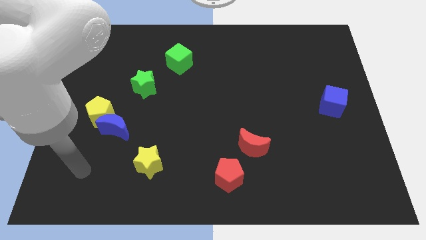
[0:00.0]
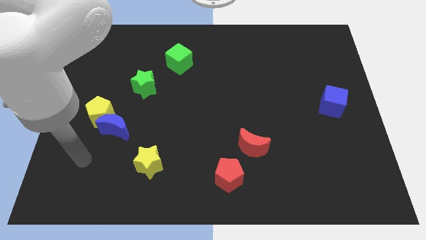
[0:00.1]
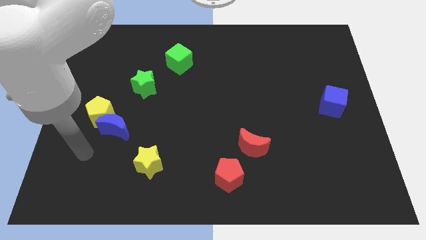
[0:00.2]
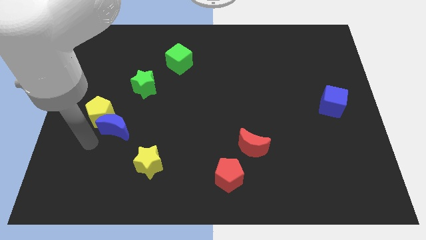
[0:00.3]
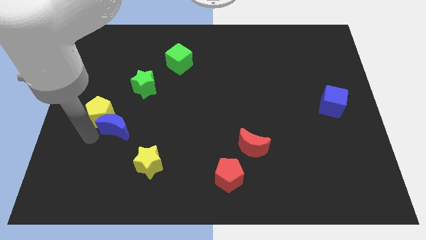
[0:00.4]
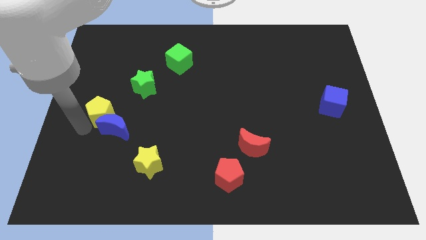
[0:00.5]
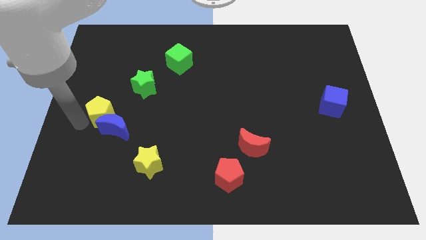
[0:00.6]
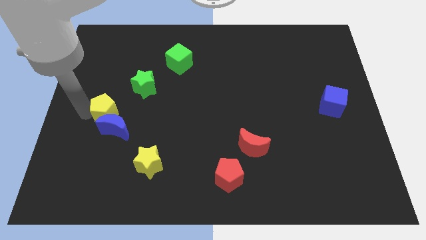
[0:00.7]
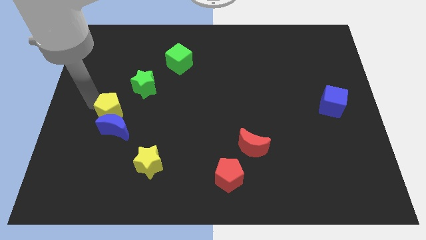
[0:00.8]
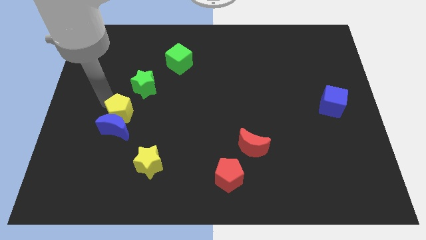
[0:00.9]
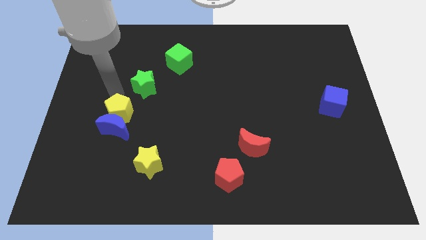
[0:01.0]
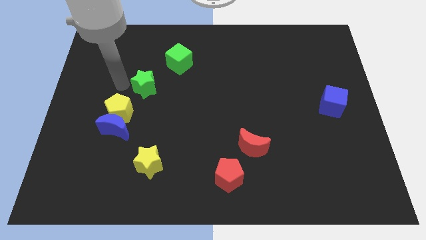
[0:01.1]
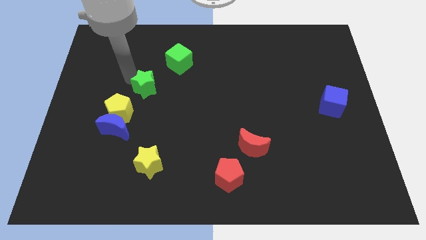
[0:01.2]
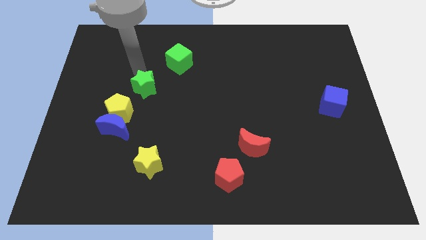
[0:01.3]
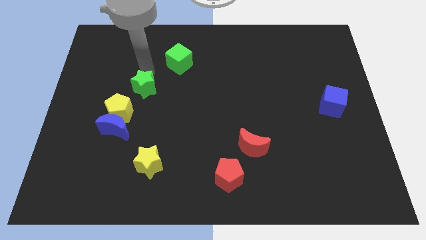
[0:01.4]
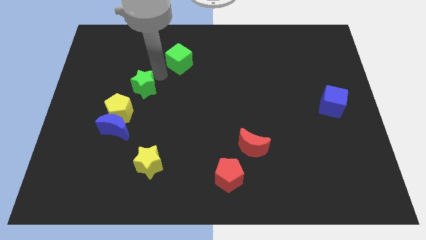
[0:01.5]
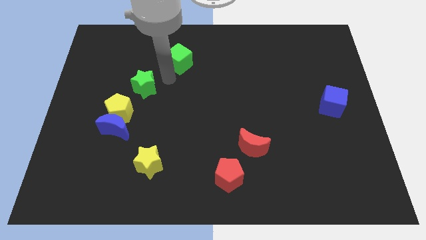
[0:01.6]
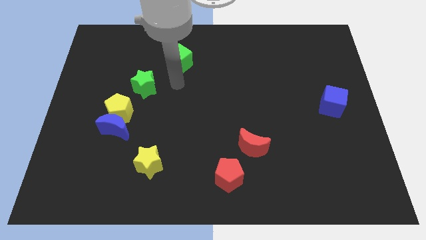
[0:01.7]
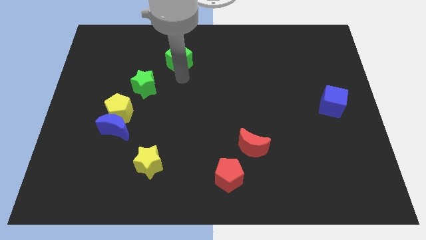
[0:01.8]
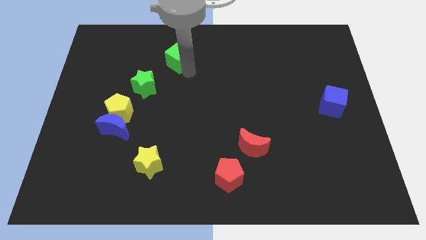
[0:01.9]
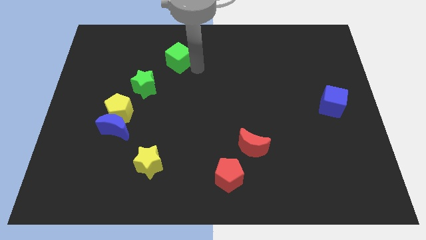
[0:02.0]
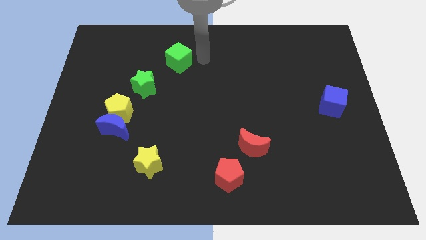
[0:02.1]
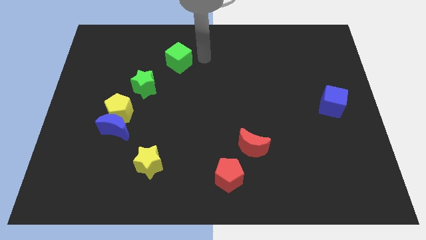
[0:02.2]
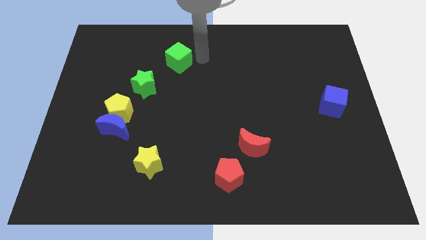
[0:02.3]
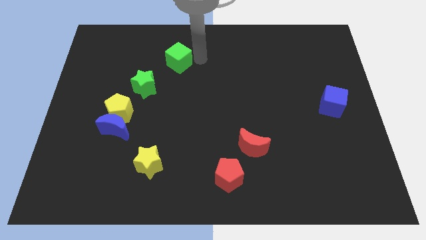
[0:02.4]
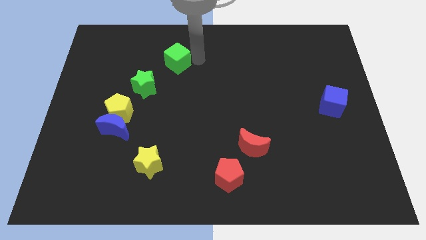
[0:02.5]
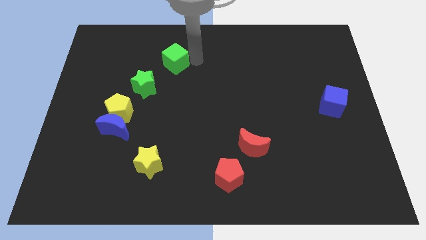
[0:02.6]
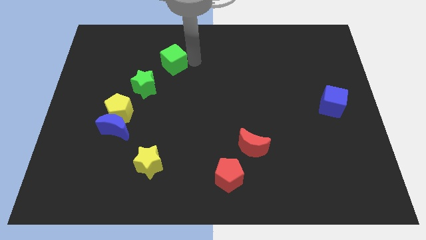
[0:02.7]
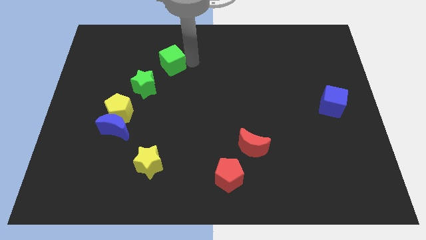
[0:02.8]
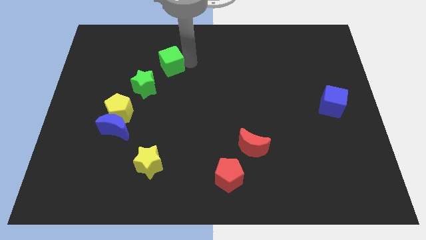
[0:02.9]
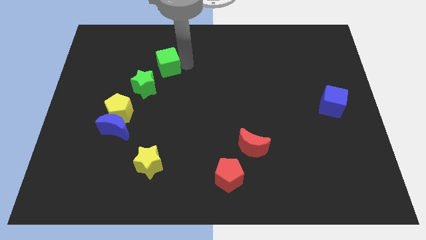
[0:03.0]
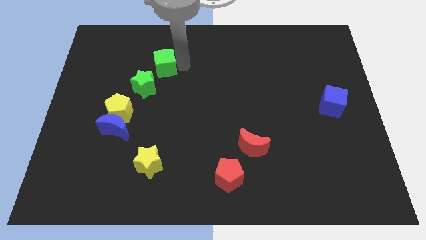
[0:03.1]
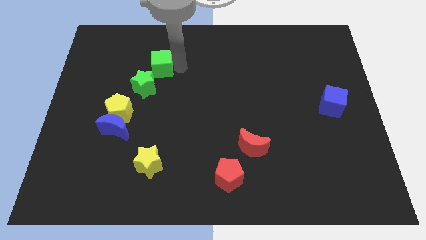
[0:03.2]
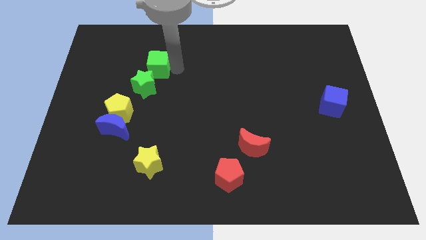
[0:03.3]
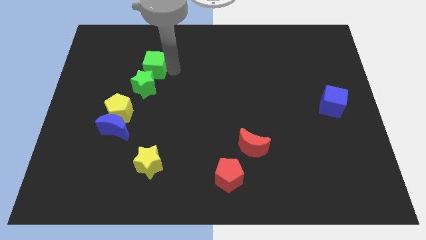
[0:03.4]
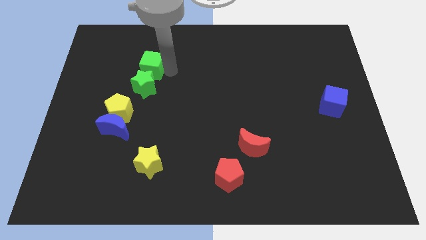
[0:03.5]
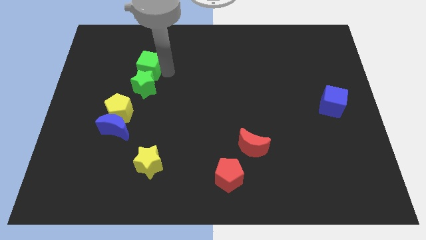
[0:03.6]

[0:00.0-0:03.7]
push the green cube left a little

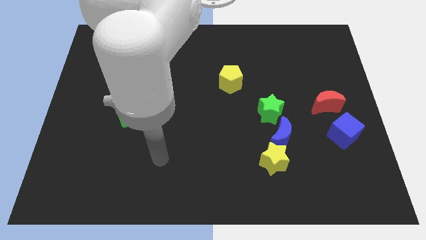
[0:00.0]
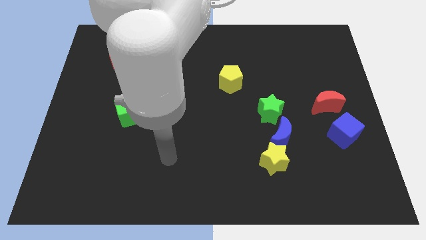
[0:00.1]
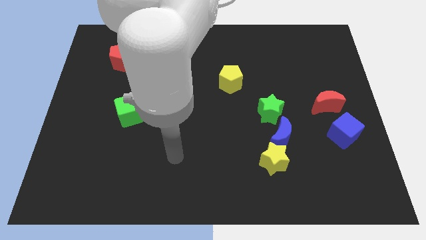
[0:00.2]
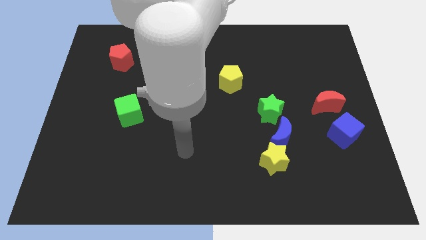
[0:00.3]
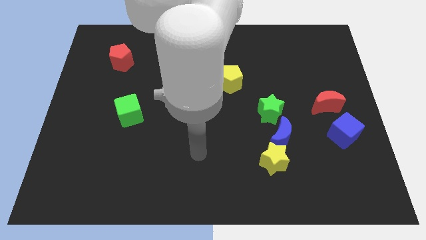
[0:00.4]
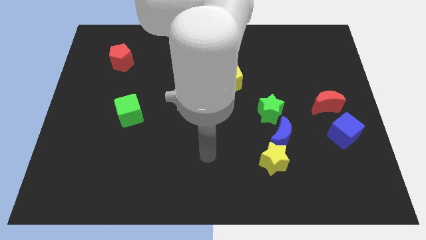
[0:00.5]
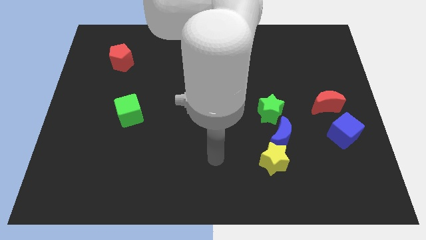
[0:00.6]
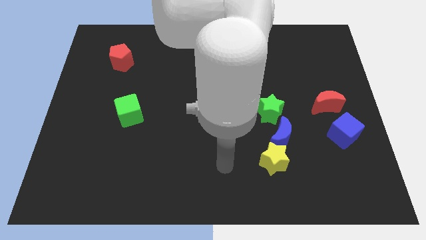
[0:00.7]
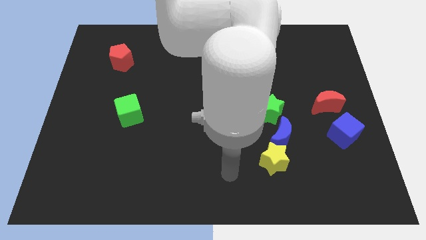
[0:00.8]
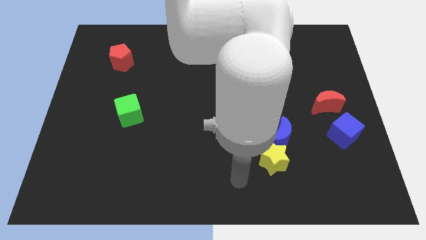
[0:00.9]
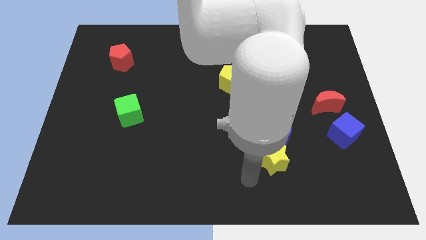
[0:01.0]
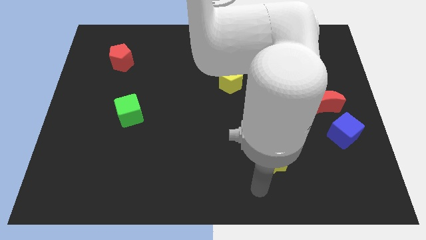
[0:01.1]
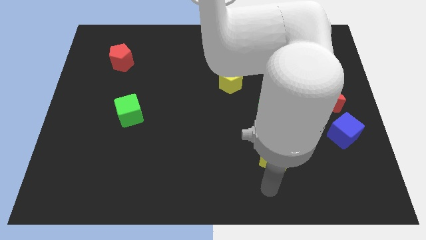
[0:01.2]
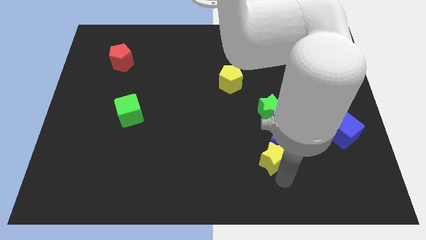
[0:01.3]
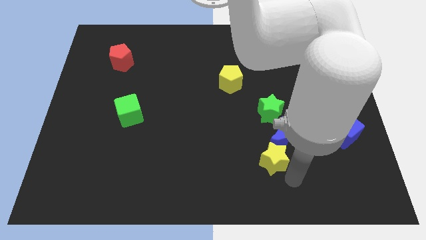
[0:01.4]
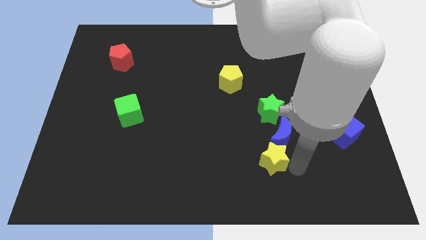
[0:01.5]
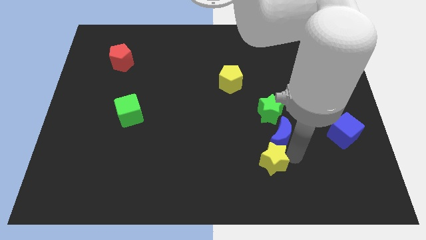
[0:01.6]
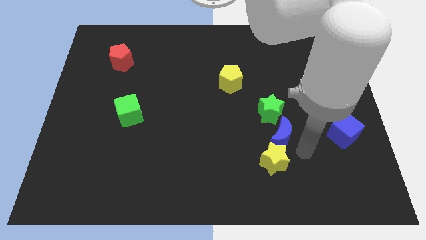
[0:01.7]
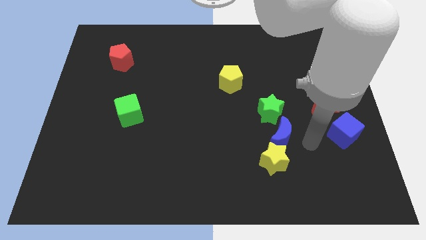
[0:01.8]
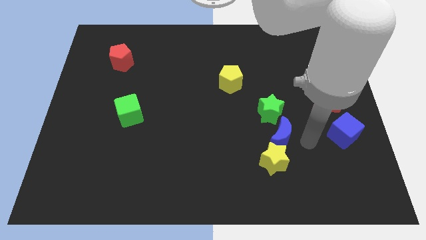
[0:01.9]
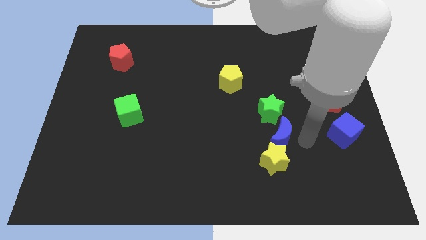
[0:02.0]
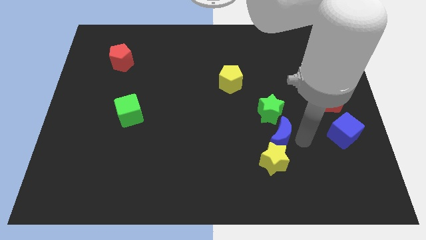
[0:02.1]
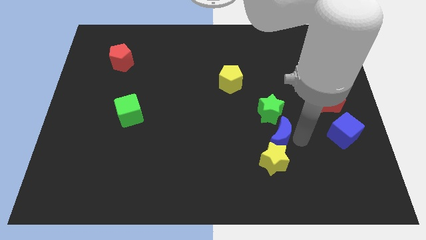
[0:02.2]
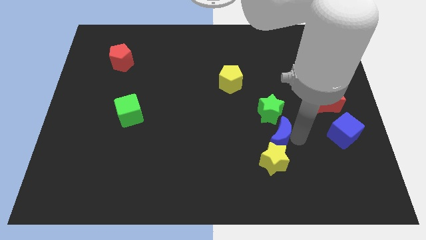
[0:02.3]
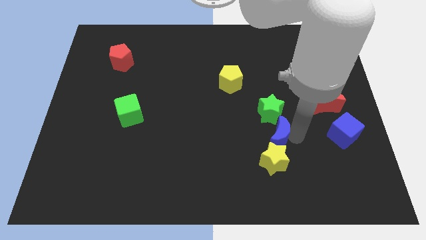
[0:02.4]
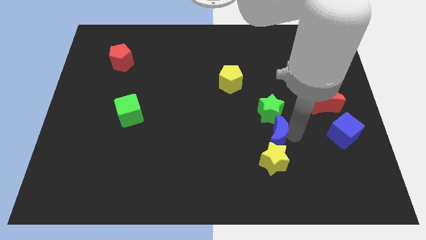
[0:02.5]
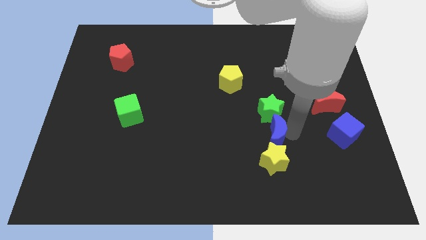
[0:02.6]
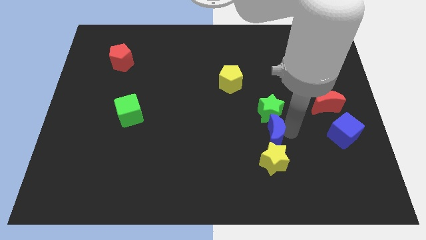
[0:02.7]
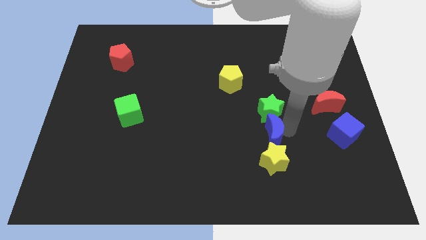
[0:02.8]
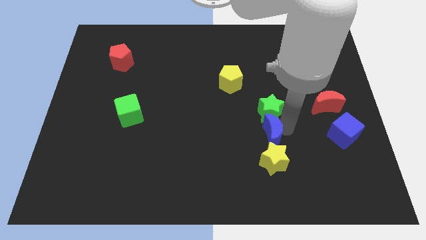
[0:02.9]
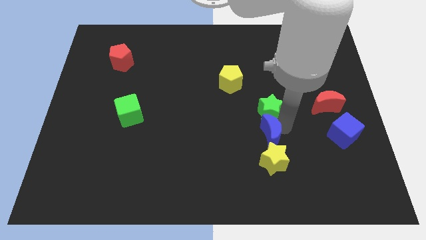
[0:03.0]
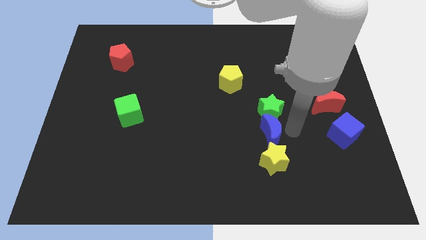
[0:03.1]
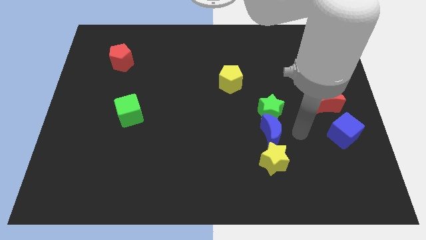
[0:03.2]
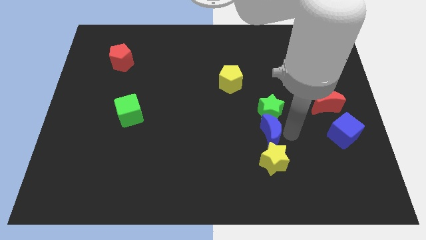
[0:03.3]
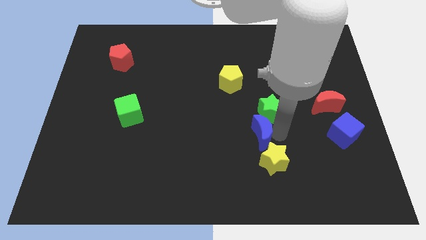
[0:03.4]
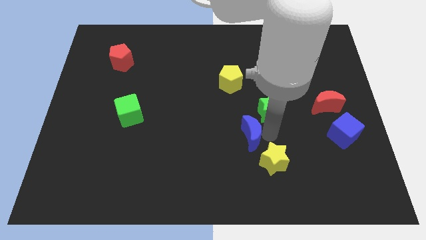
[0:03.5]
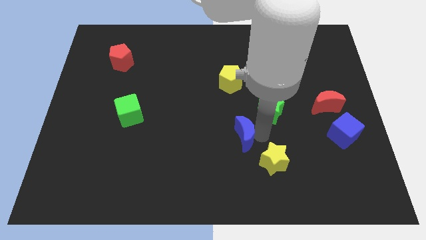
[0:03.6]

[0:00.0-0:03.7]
push the blue moon a bit left

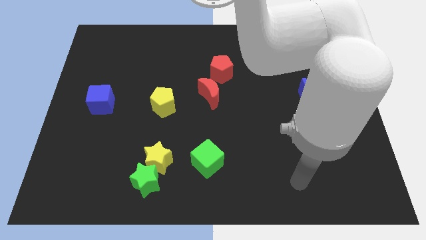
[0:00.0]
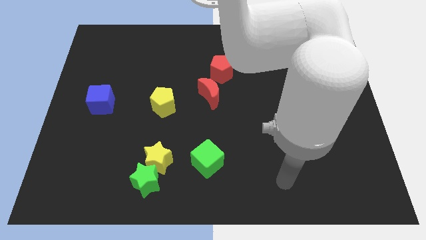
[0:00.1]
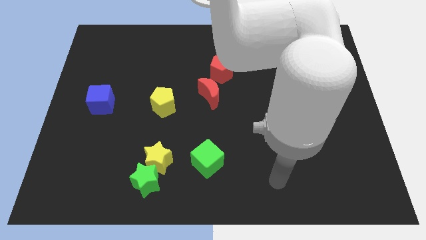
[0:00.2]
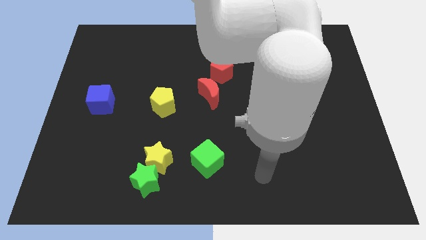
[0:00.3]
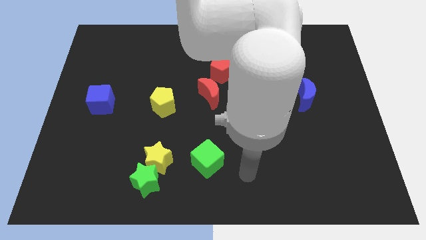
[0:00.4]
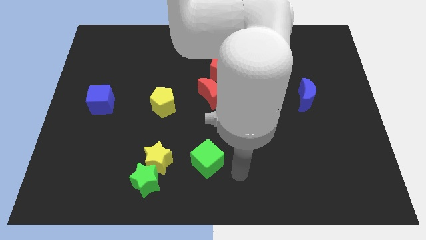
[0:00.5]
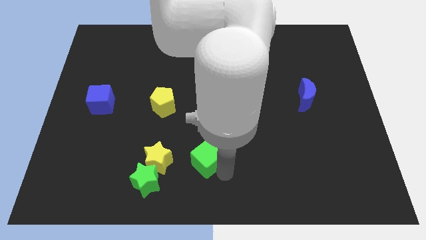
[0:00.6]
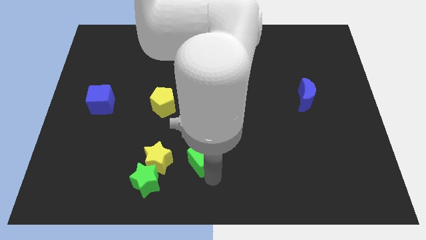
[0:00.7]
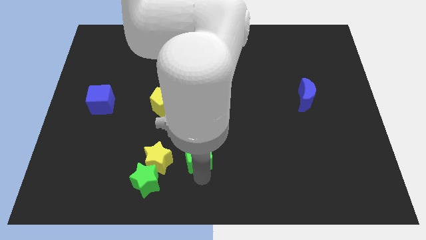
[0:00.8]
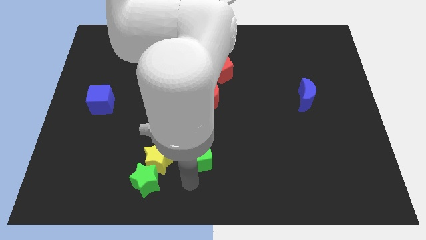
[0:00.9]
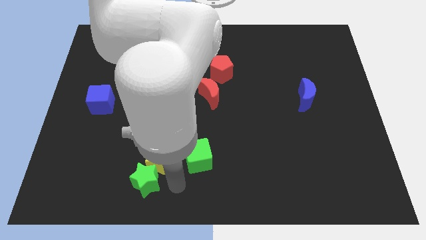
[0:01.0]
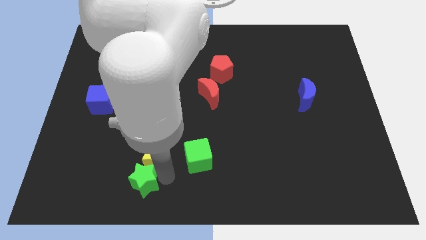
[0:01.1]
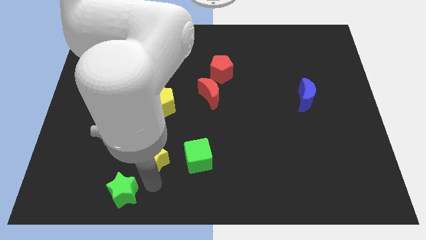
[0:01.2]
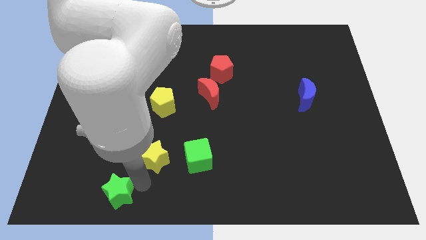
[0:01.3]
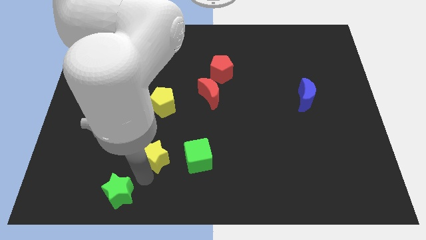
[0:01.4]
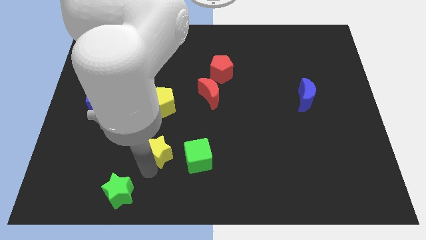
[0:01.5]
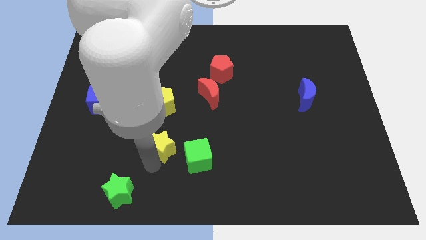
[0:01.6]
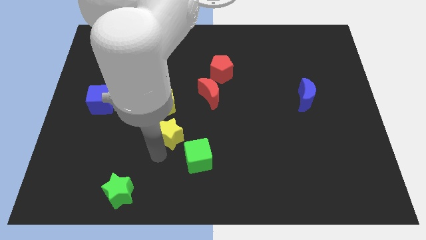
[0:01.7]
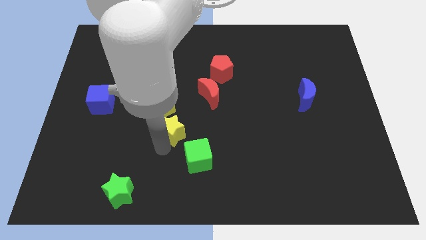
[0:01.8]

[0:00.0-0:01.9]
push the yellow star a little bit up
